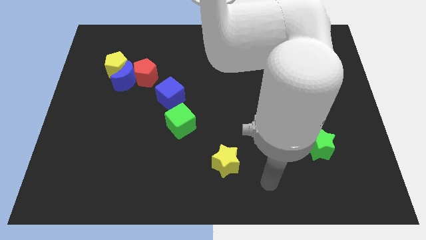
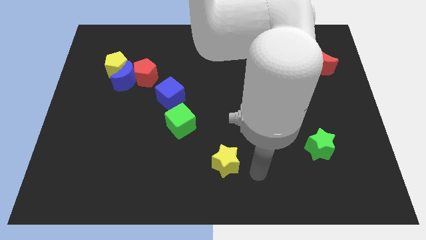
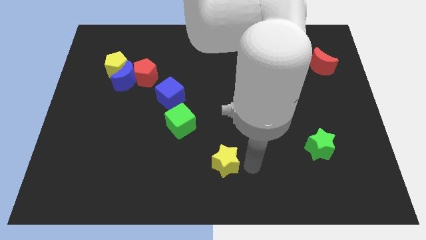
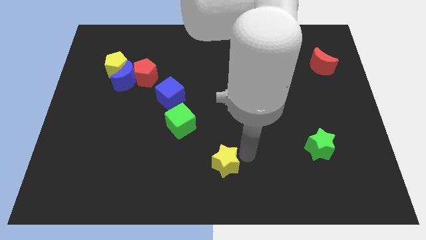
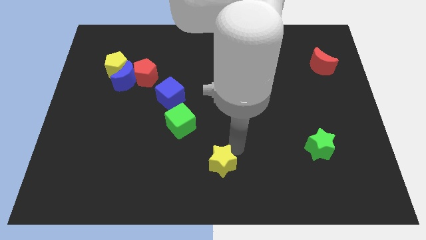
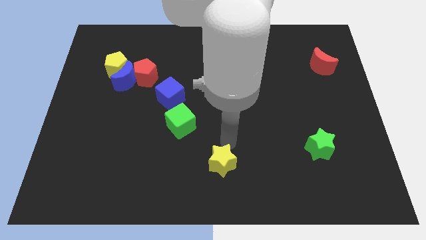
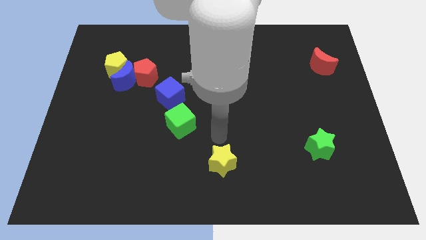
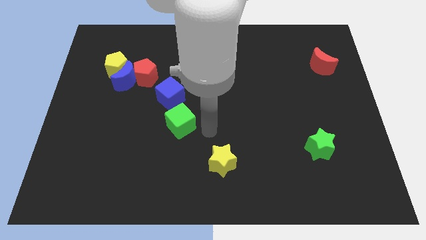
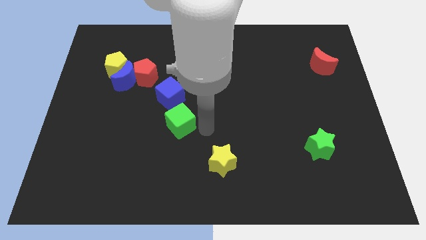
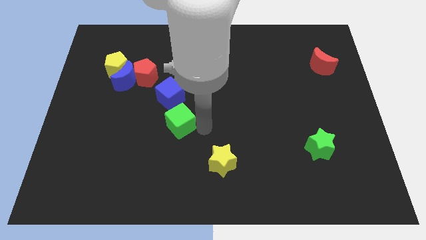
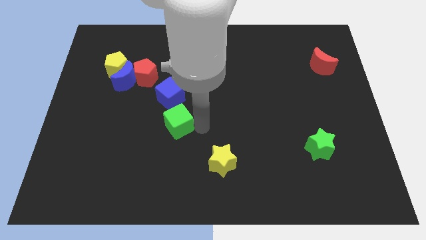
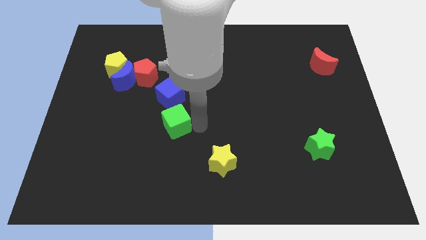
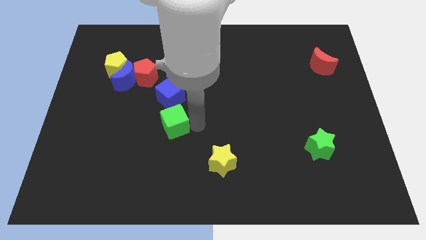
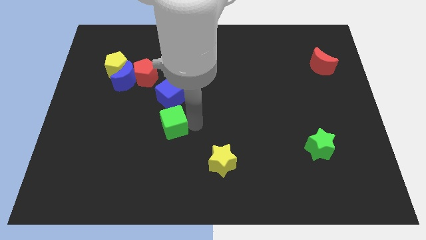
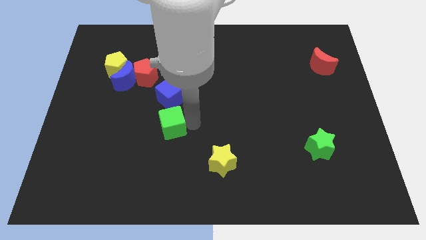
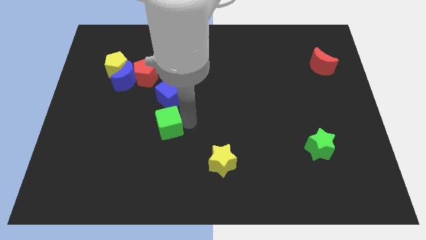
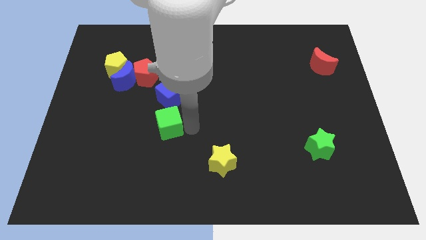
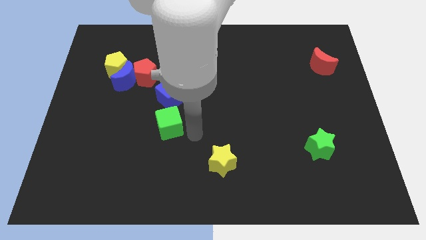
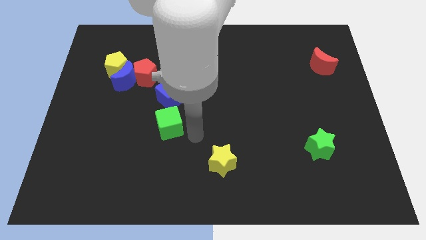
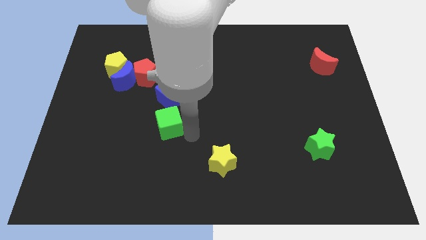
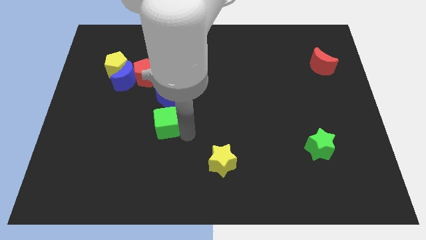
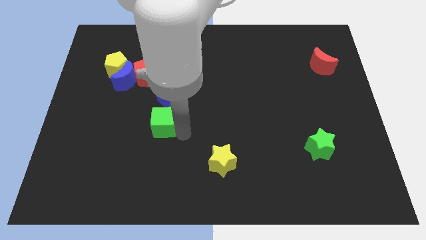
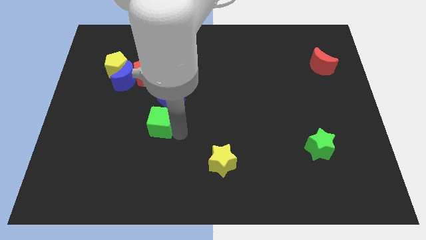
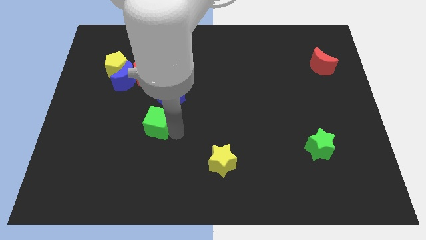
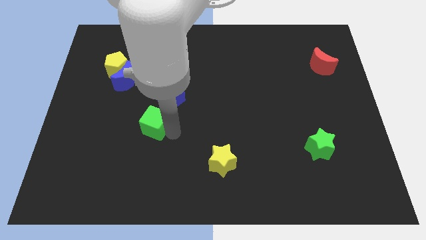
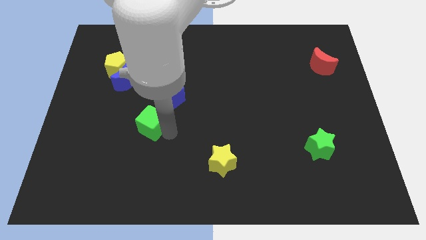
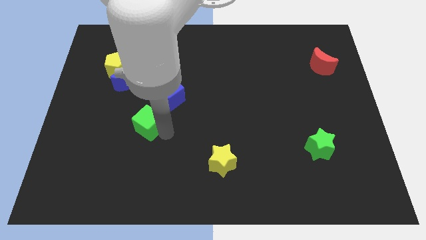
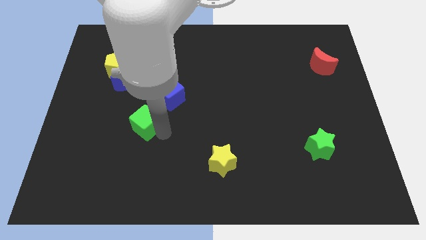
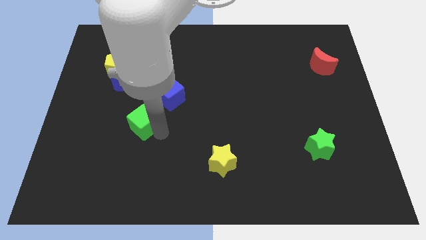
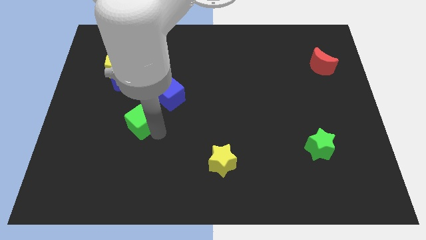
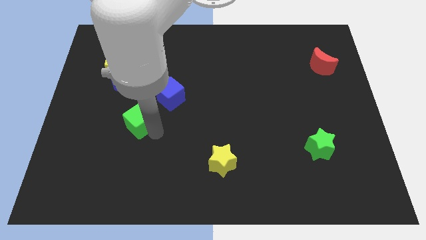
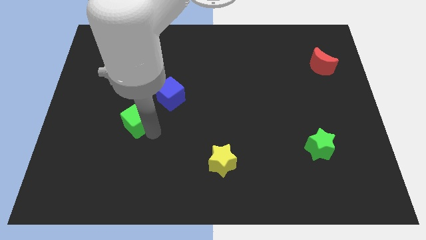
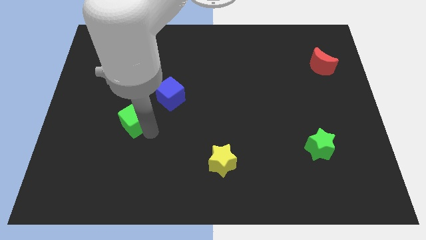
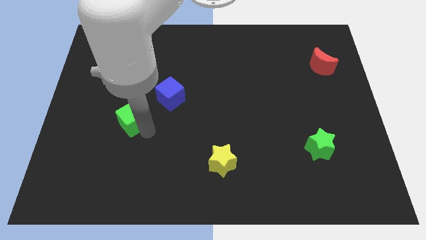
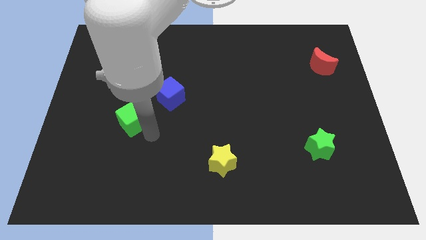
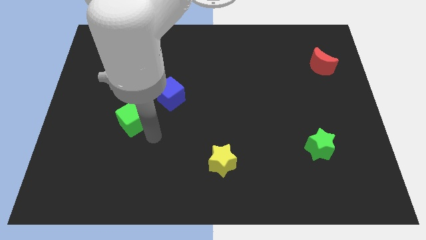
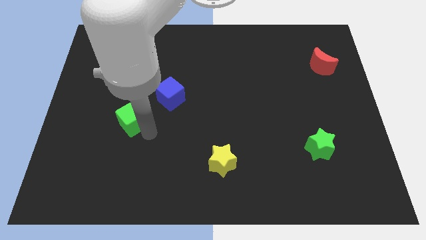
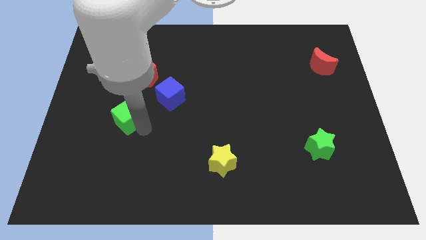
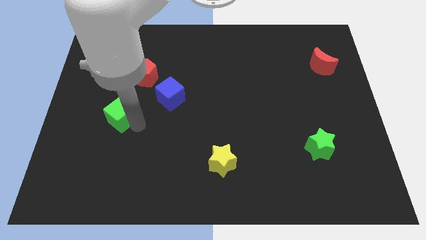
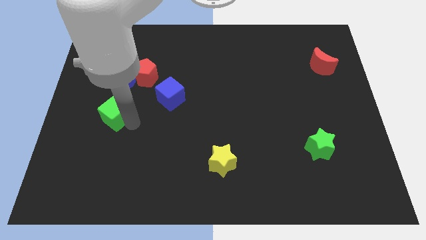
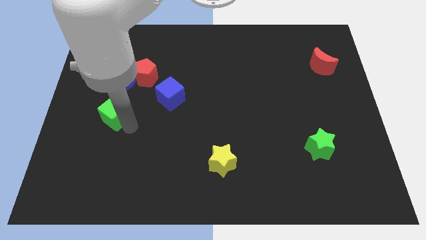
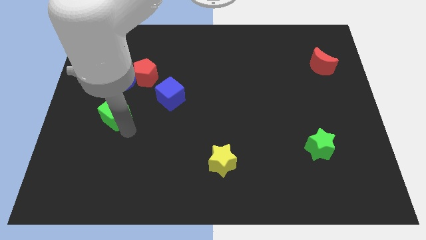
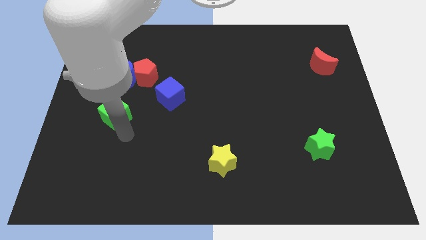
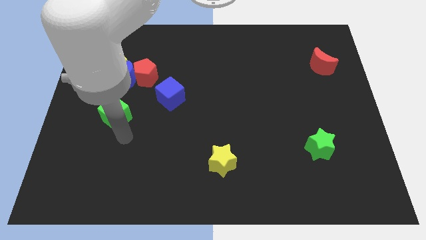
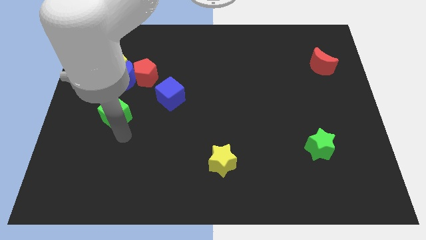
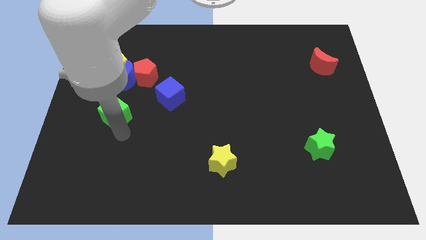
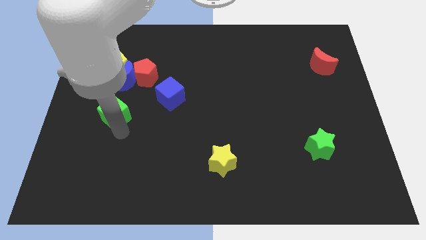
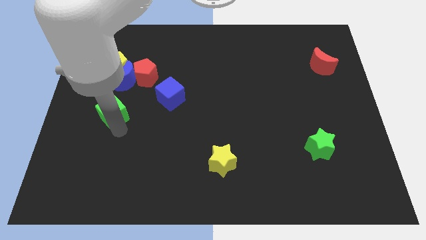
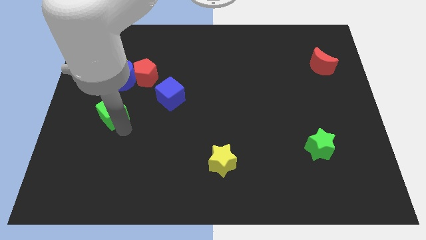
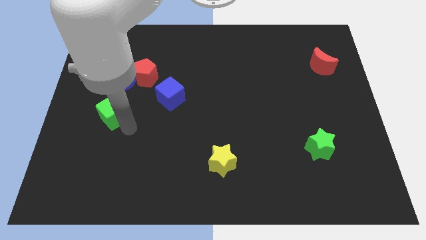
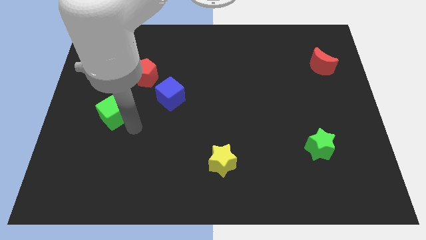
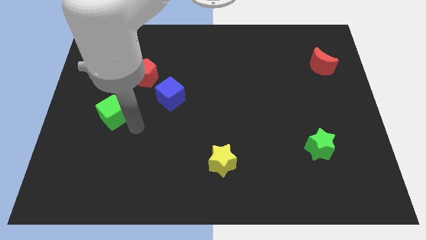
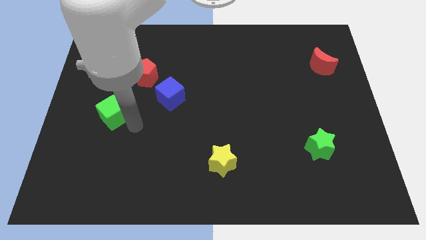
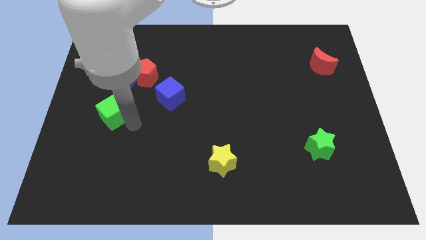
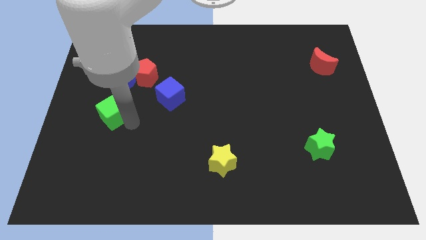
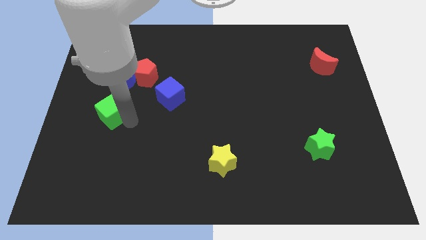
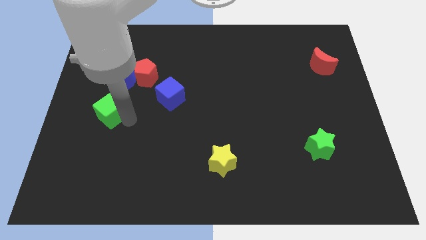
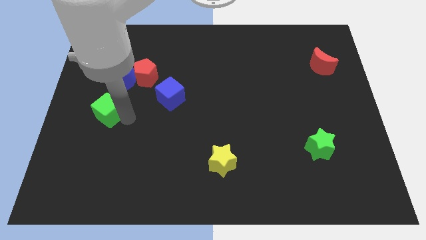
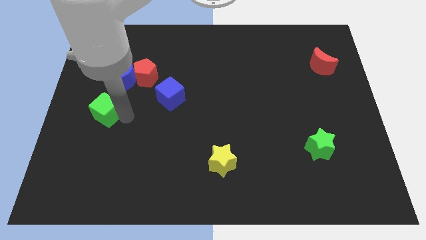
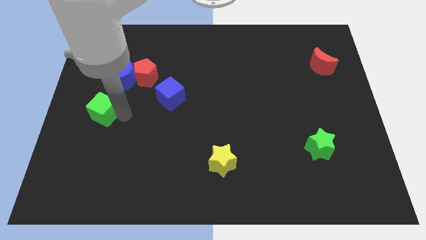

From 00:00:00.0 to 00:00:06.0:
slide the green cube to the left side of the board

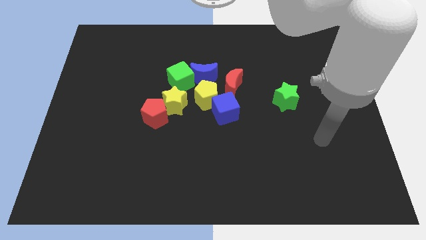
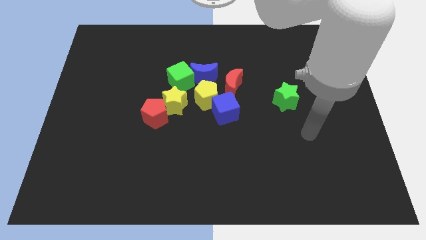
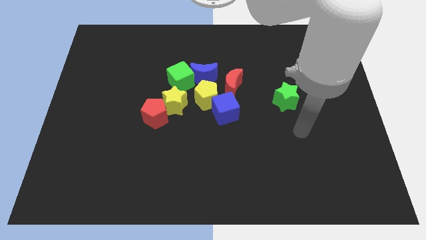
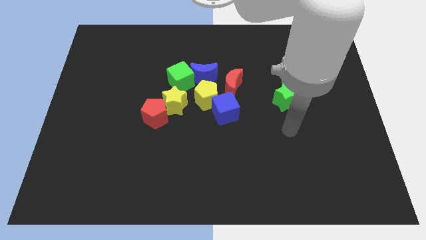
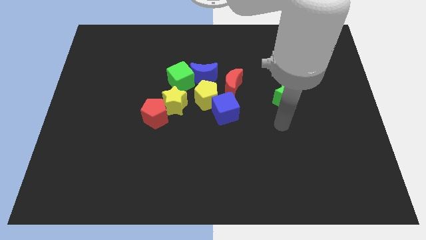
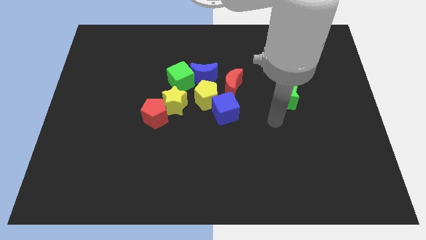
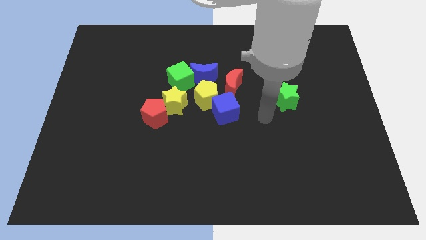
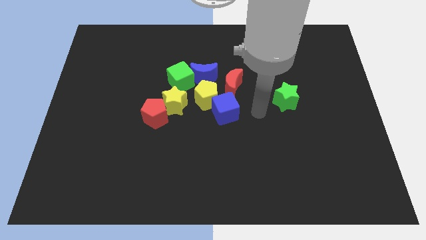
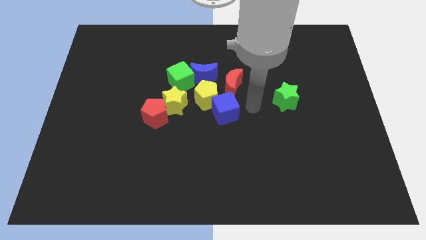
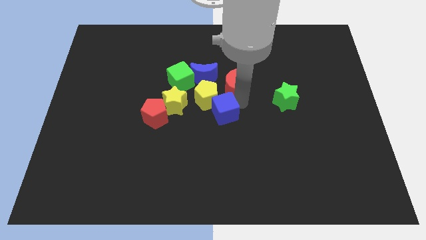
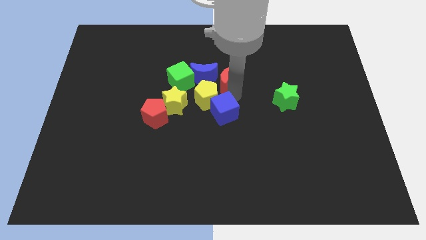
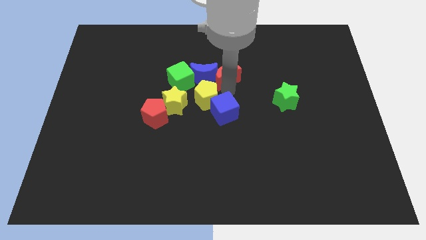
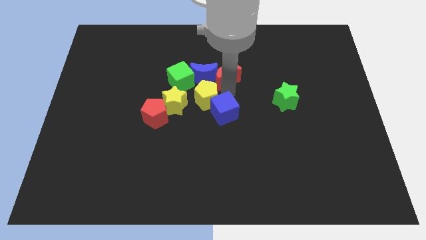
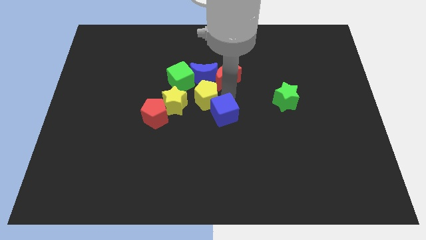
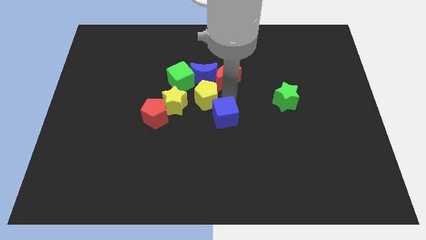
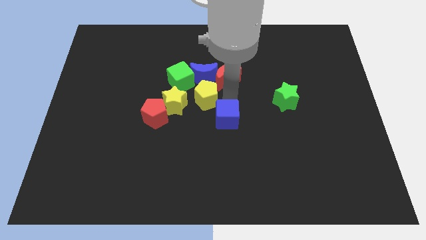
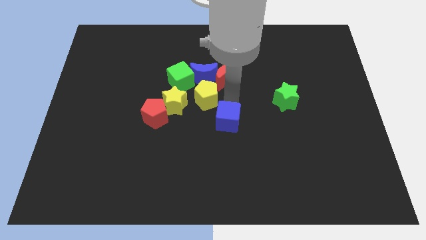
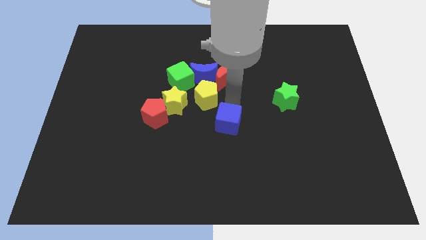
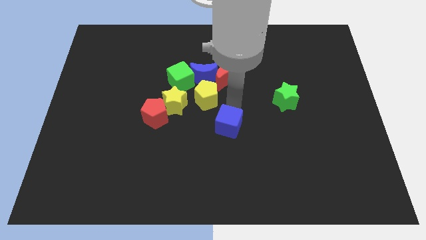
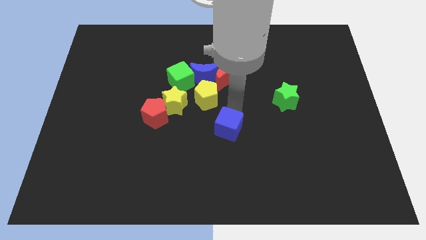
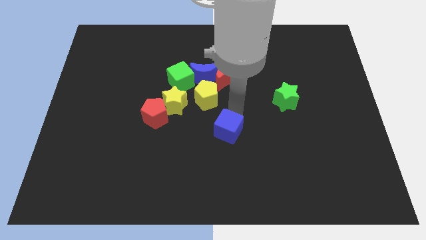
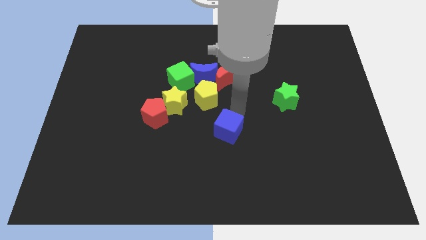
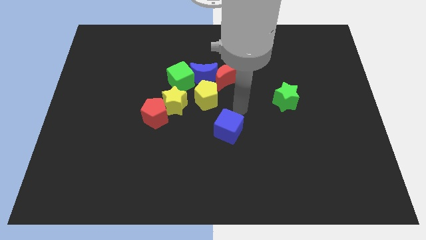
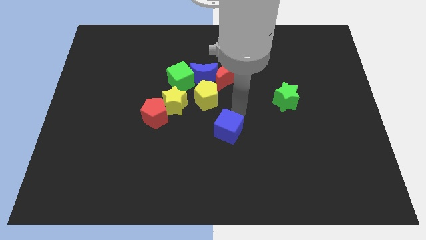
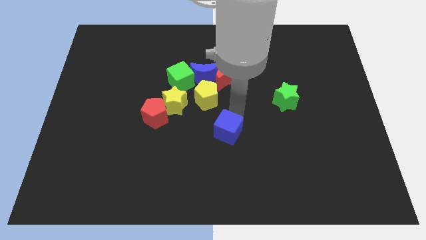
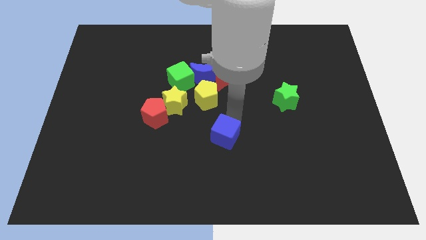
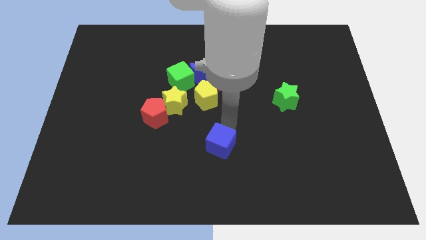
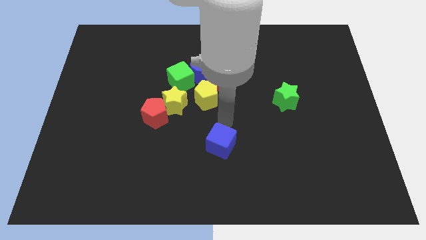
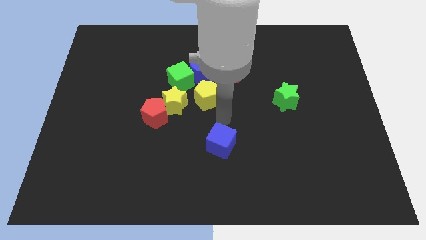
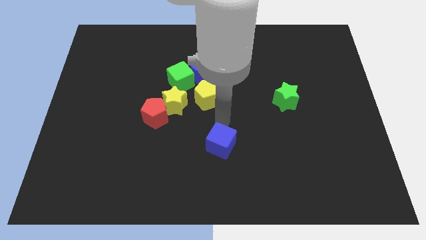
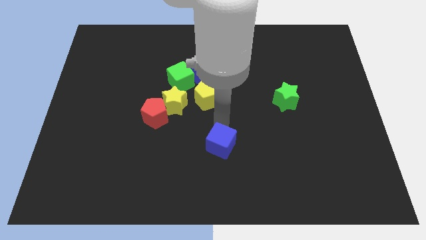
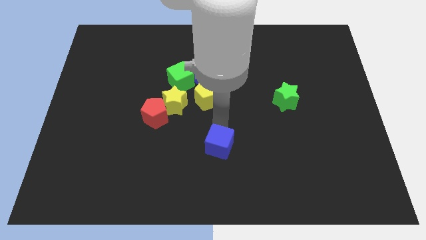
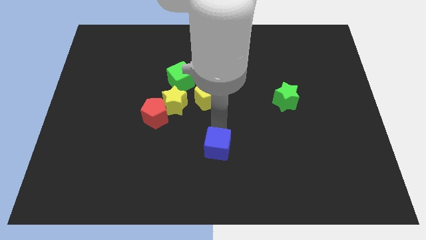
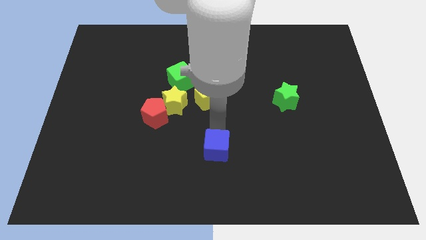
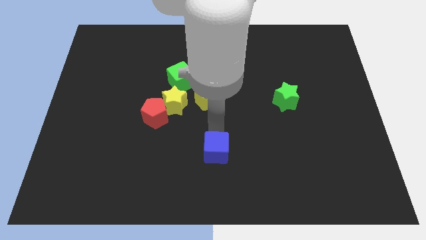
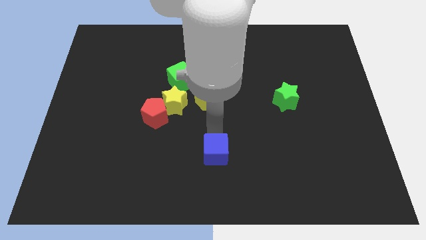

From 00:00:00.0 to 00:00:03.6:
push the blue cube to the bottom side
